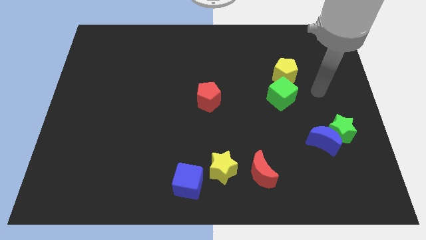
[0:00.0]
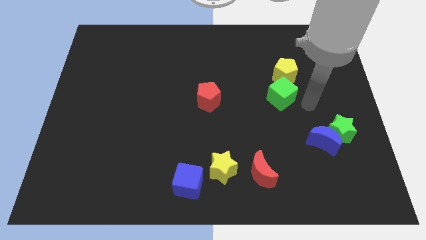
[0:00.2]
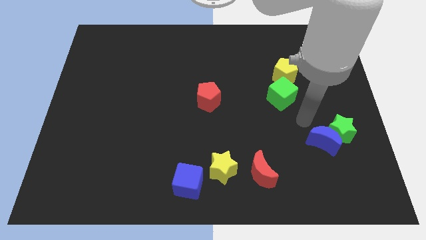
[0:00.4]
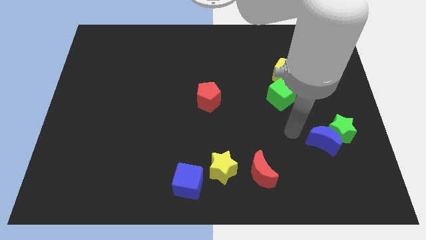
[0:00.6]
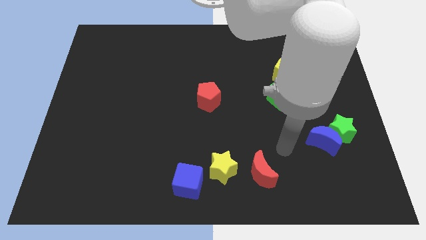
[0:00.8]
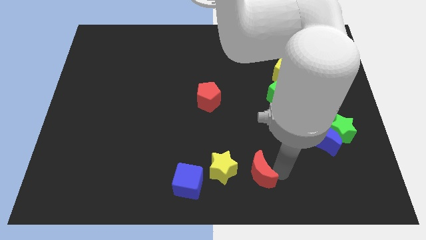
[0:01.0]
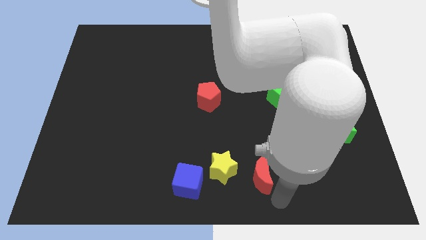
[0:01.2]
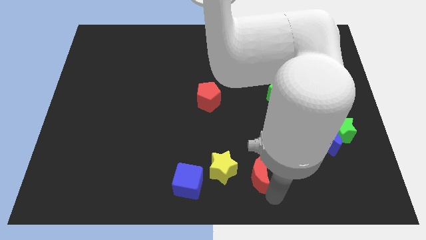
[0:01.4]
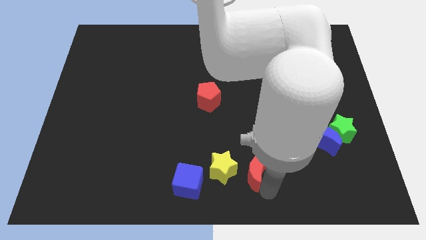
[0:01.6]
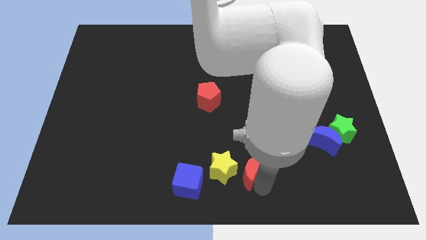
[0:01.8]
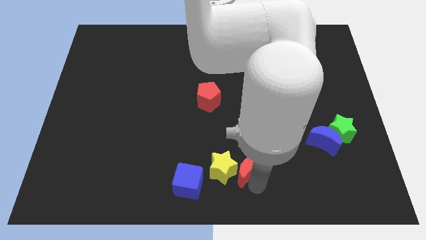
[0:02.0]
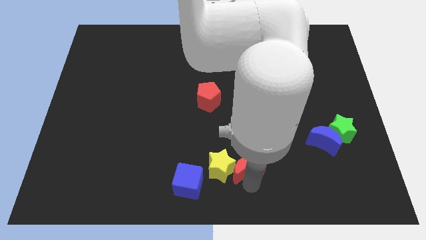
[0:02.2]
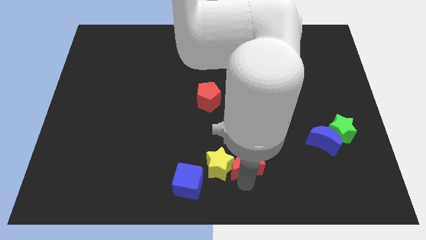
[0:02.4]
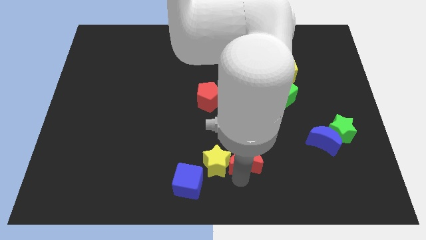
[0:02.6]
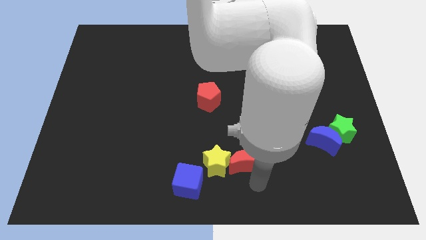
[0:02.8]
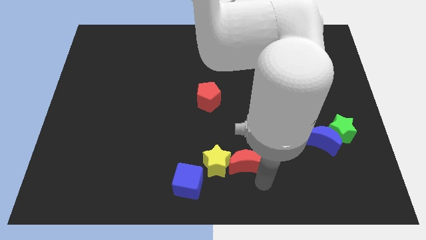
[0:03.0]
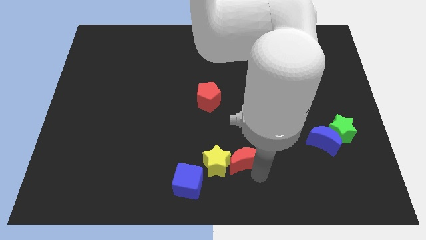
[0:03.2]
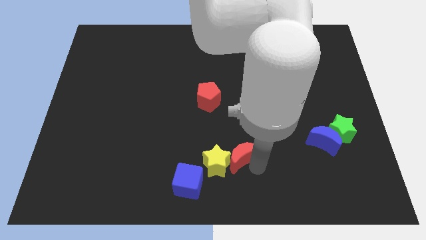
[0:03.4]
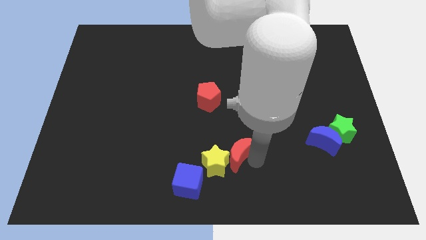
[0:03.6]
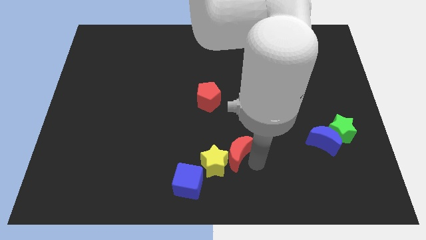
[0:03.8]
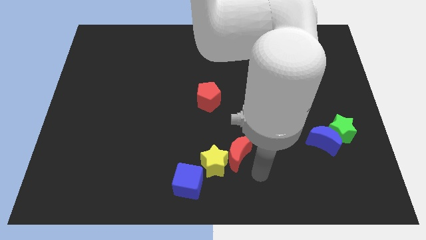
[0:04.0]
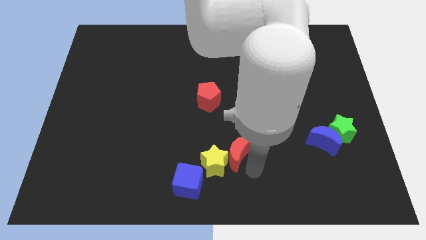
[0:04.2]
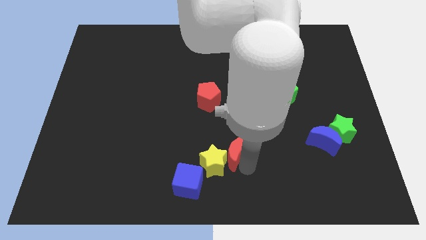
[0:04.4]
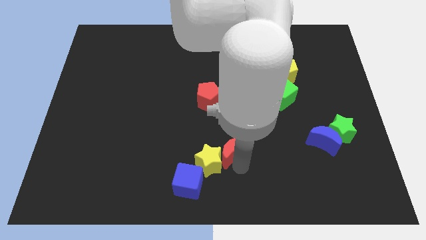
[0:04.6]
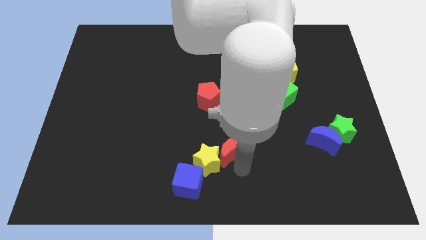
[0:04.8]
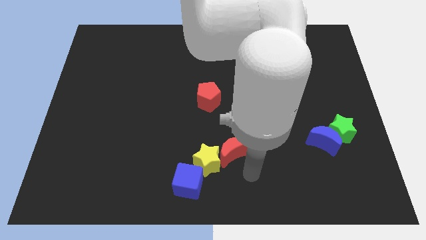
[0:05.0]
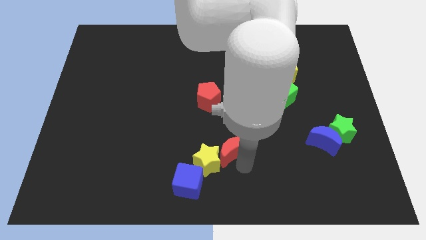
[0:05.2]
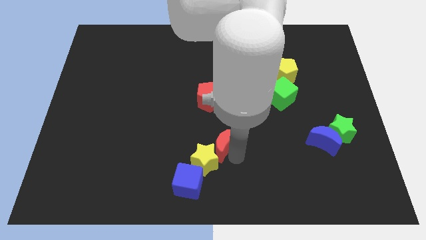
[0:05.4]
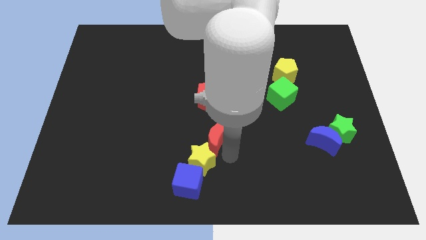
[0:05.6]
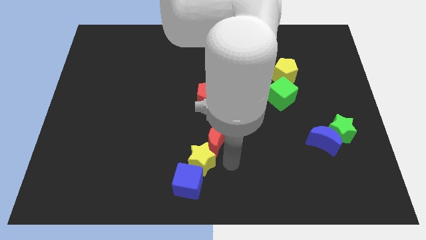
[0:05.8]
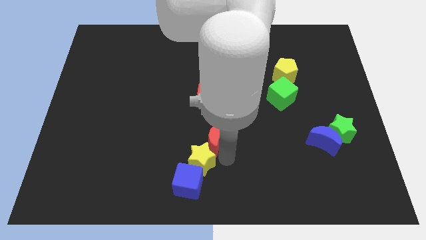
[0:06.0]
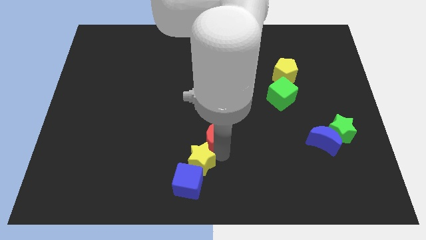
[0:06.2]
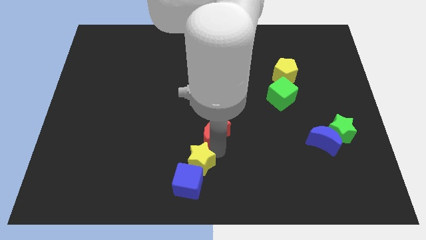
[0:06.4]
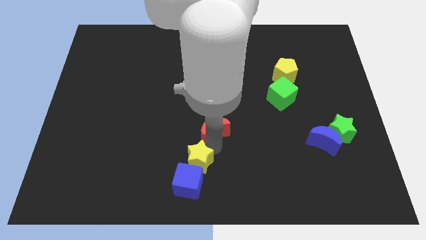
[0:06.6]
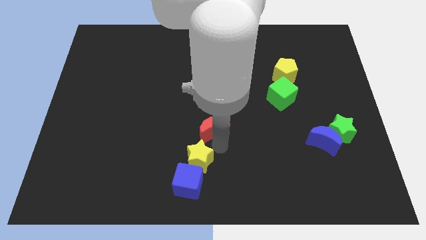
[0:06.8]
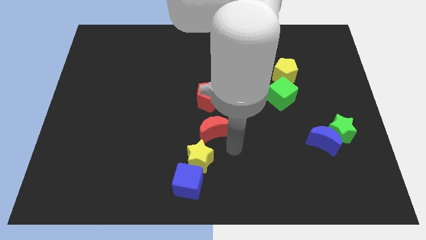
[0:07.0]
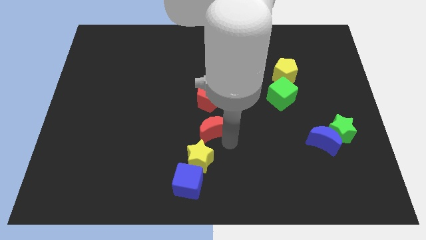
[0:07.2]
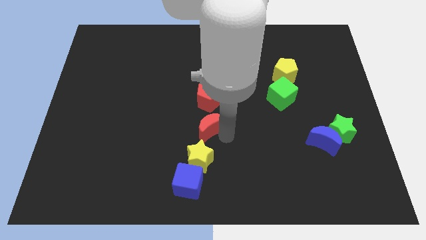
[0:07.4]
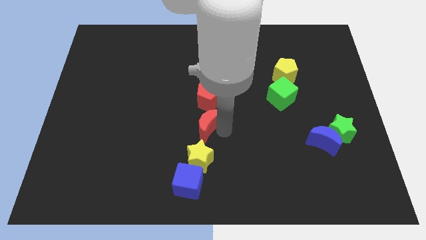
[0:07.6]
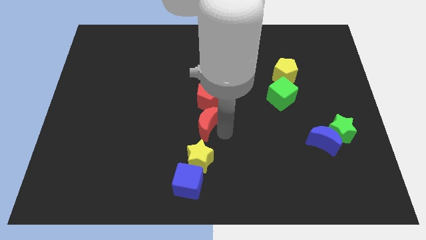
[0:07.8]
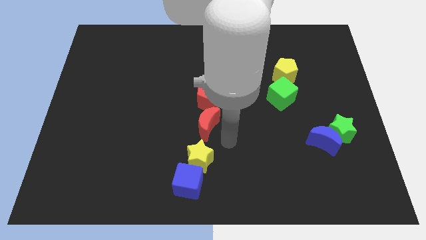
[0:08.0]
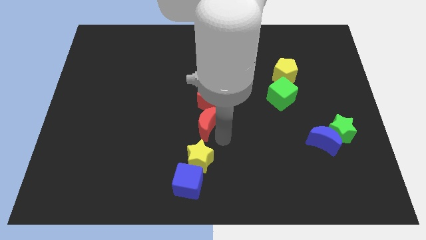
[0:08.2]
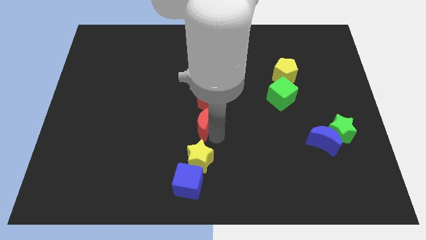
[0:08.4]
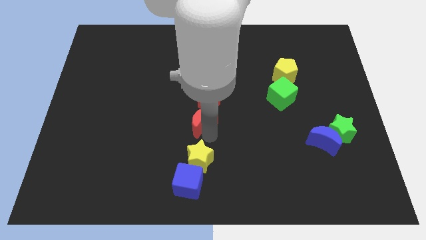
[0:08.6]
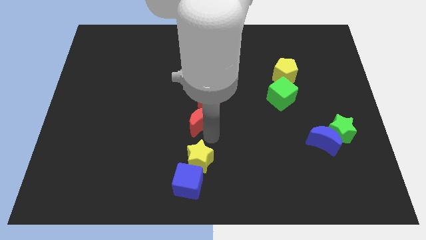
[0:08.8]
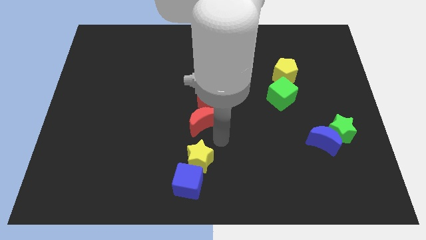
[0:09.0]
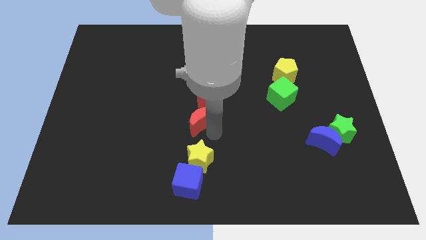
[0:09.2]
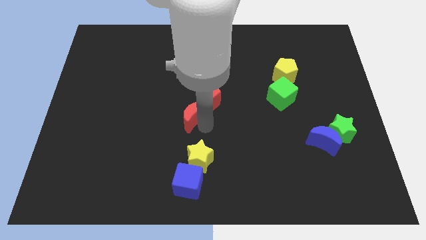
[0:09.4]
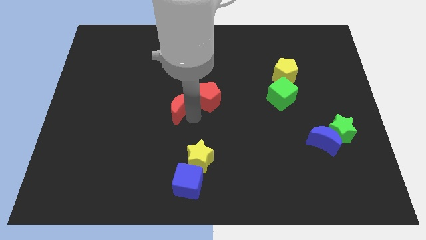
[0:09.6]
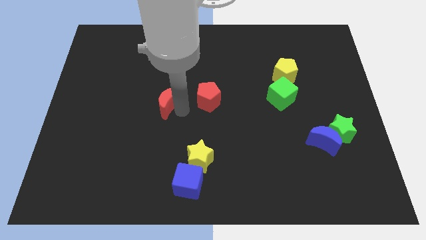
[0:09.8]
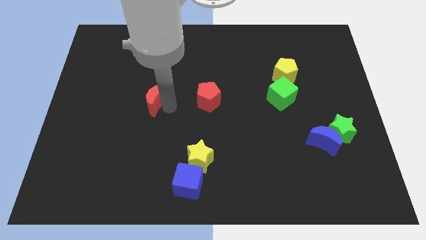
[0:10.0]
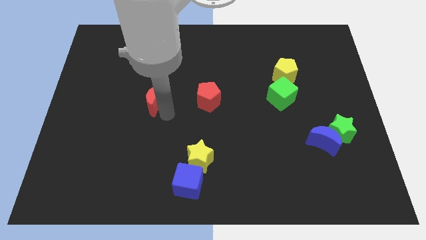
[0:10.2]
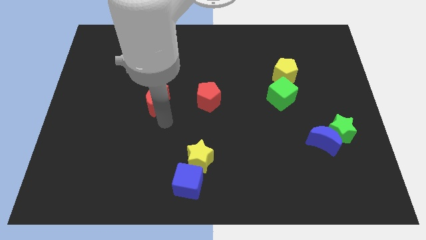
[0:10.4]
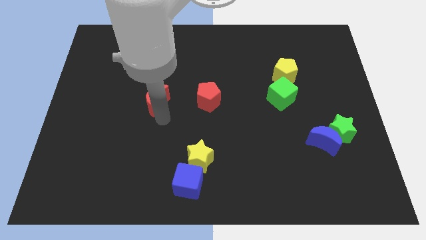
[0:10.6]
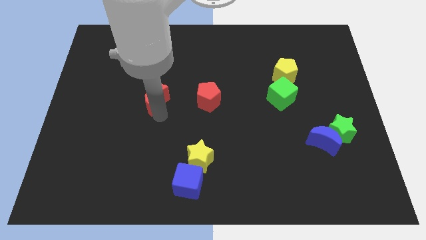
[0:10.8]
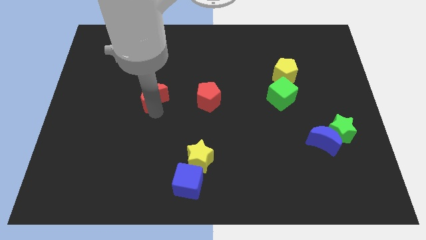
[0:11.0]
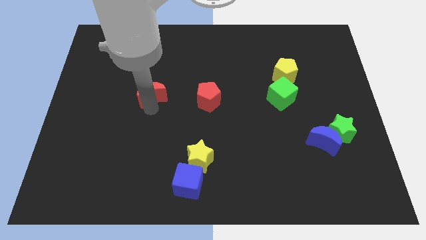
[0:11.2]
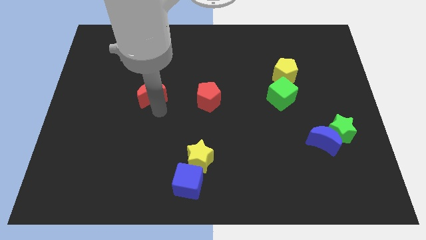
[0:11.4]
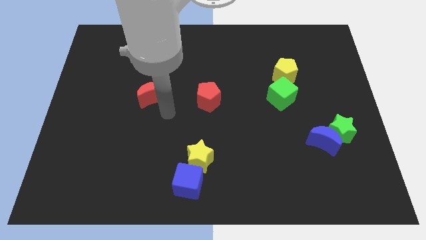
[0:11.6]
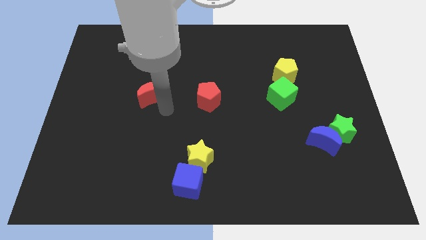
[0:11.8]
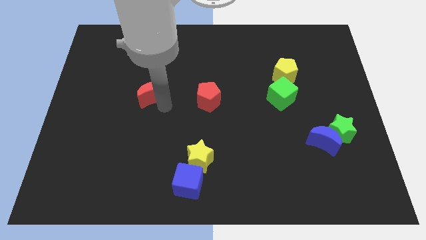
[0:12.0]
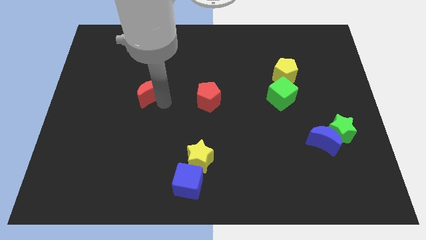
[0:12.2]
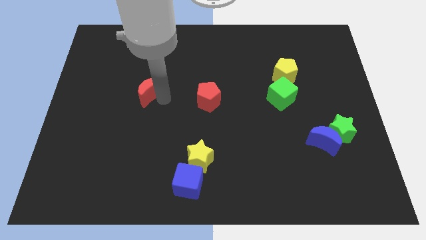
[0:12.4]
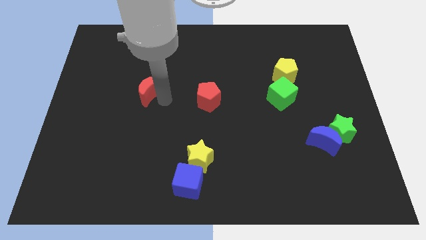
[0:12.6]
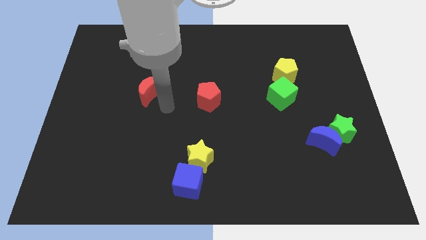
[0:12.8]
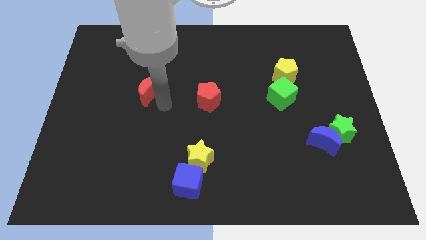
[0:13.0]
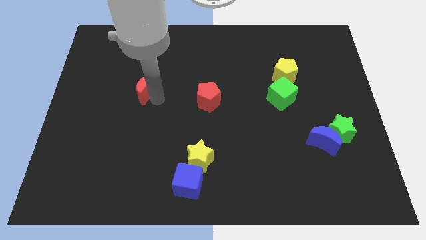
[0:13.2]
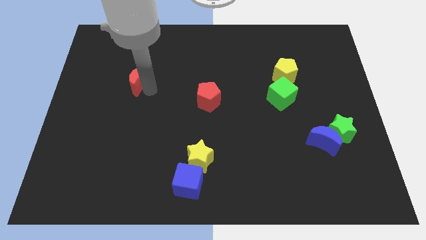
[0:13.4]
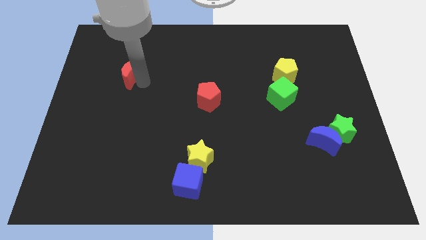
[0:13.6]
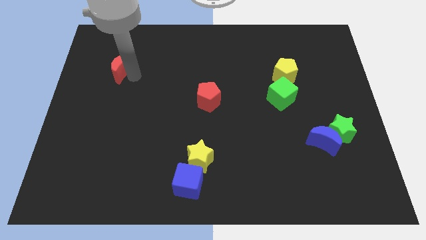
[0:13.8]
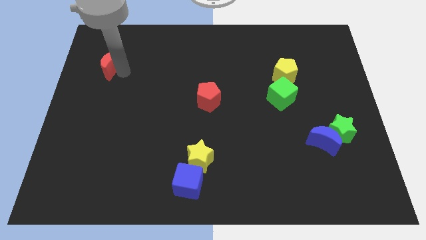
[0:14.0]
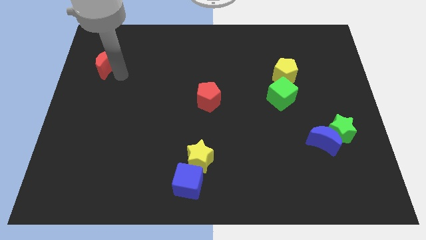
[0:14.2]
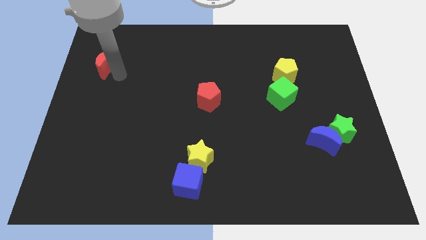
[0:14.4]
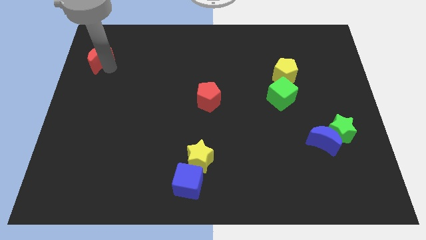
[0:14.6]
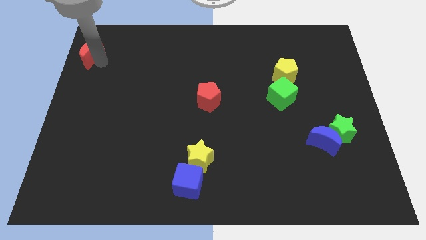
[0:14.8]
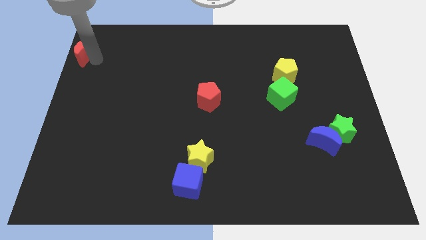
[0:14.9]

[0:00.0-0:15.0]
move the red moon to the top left corner
